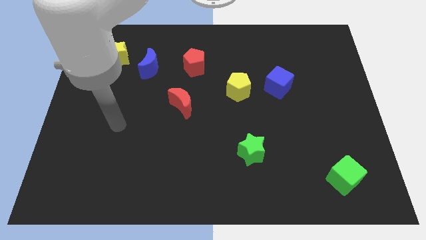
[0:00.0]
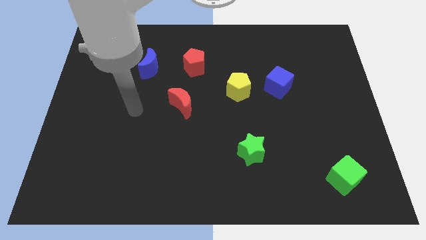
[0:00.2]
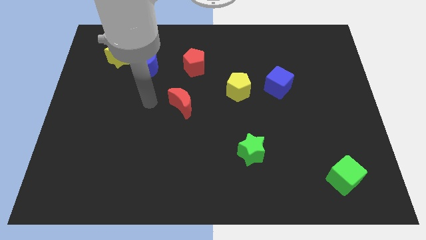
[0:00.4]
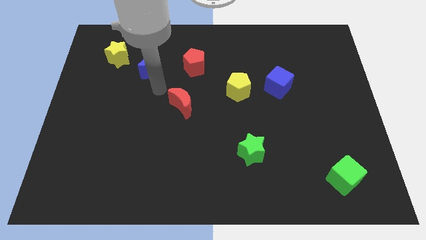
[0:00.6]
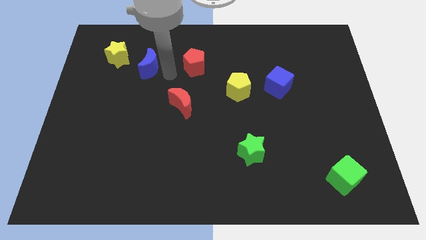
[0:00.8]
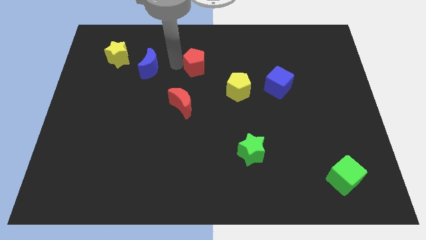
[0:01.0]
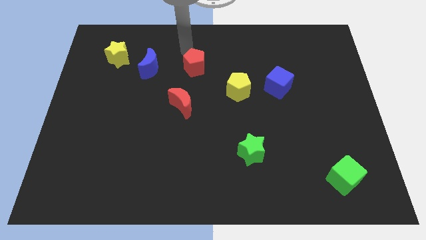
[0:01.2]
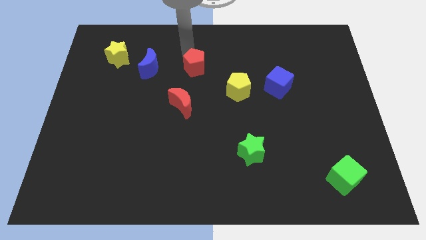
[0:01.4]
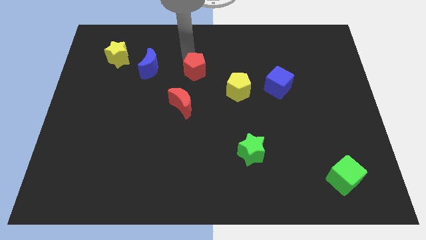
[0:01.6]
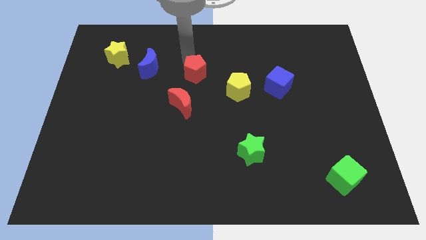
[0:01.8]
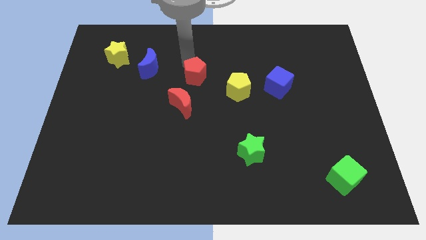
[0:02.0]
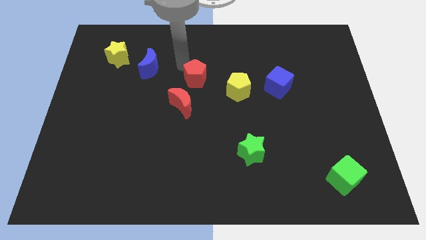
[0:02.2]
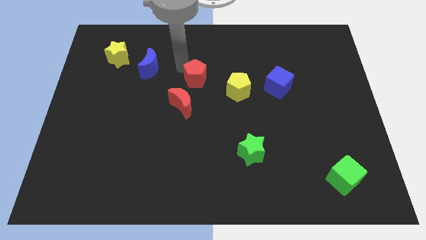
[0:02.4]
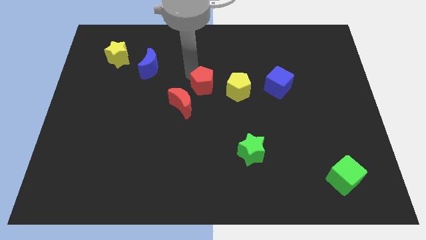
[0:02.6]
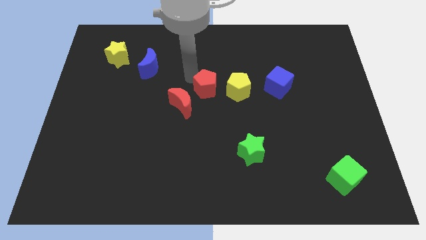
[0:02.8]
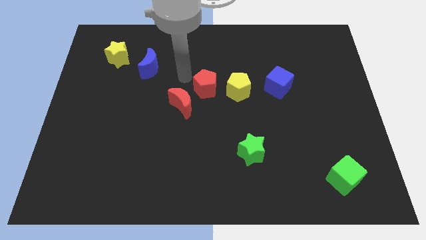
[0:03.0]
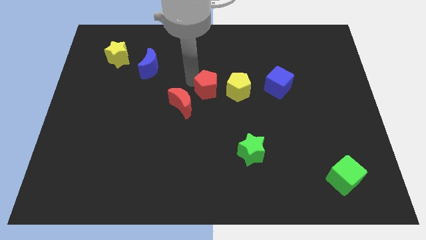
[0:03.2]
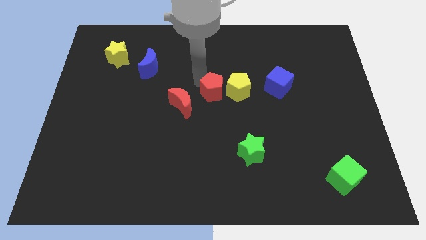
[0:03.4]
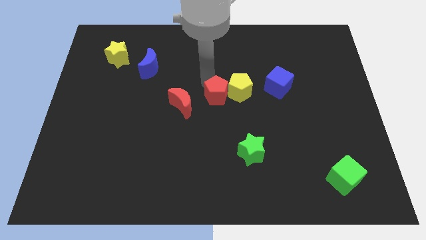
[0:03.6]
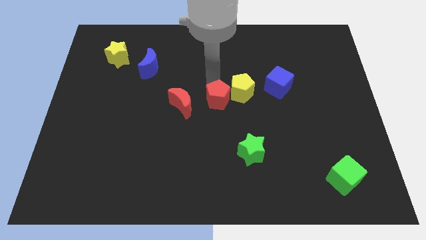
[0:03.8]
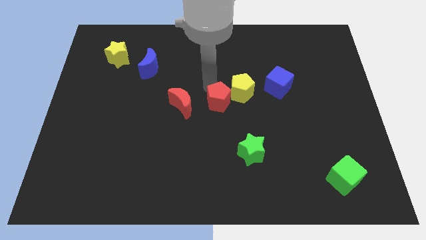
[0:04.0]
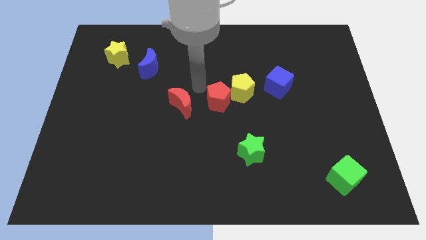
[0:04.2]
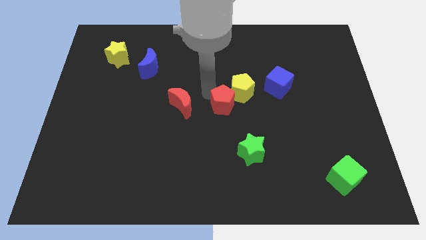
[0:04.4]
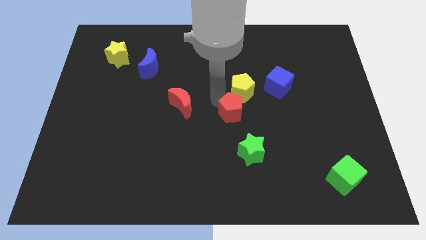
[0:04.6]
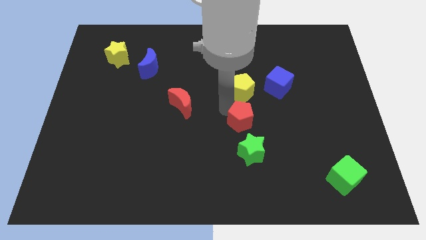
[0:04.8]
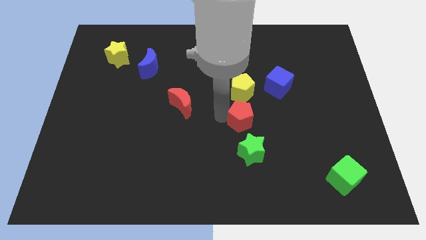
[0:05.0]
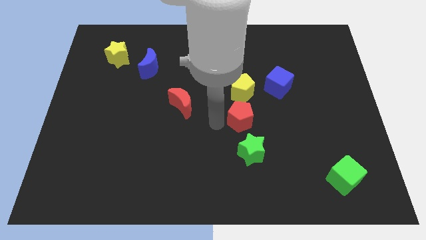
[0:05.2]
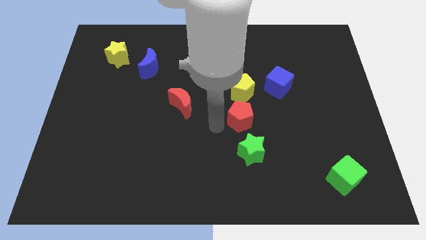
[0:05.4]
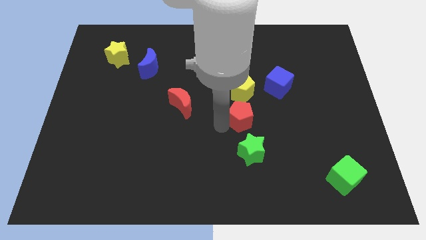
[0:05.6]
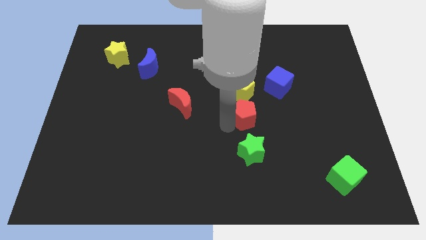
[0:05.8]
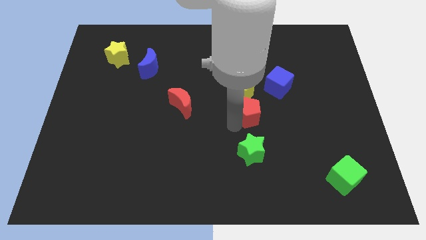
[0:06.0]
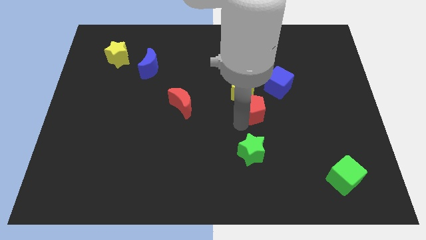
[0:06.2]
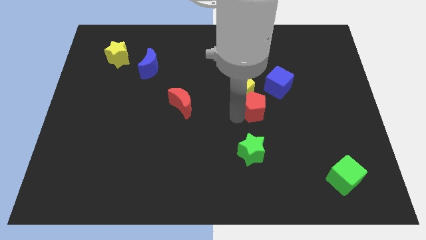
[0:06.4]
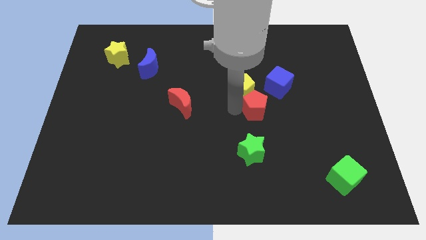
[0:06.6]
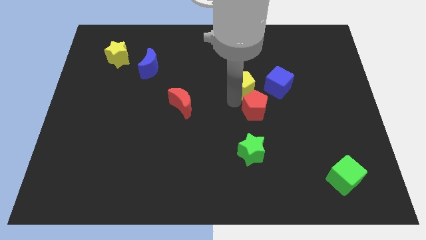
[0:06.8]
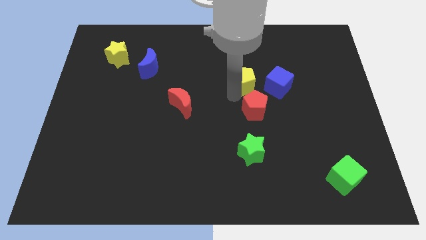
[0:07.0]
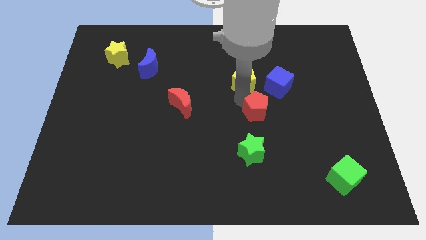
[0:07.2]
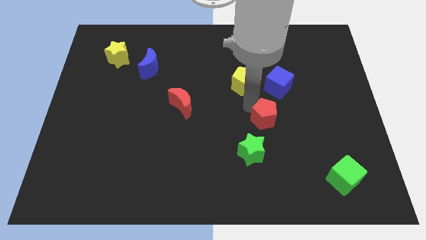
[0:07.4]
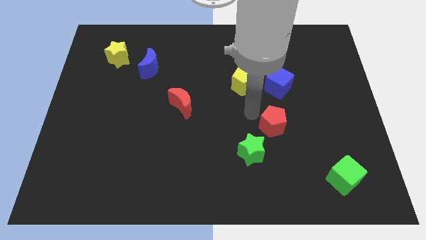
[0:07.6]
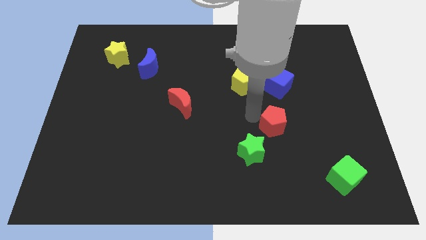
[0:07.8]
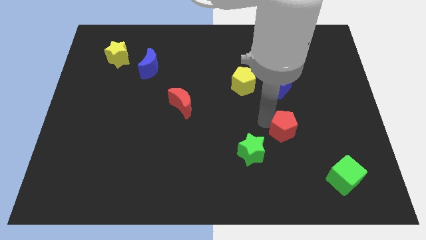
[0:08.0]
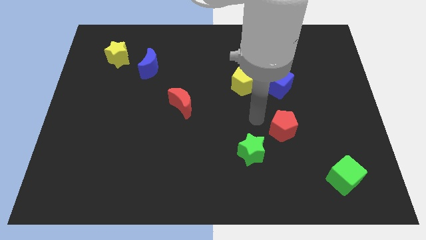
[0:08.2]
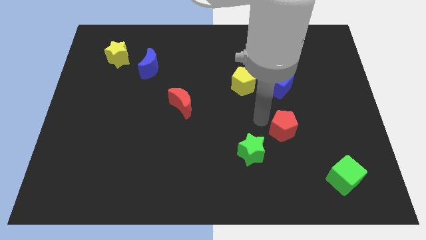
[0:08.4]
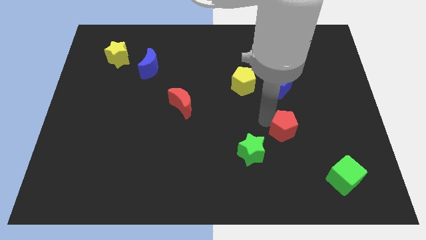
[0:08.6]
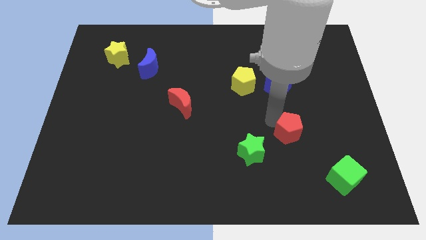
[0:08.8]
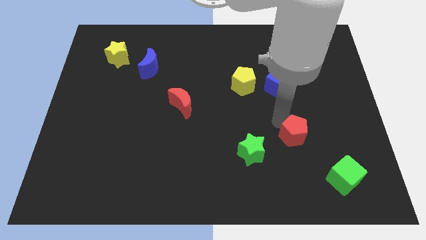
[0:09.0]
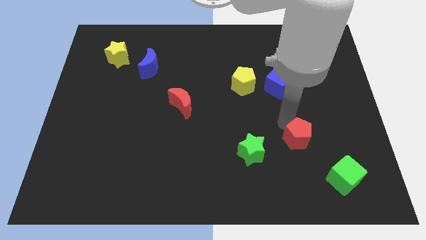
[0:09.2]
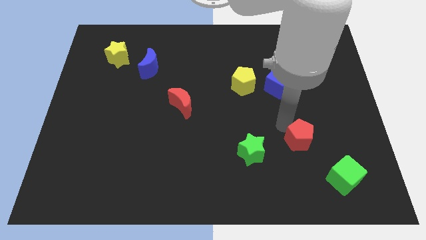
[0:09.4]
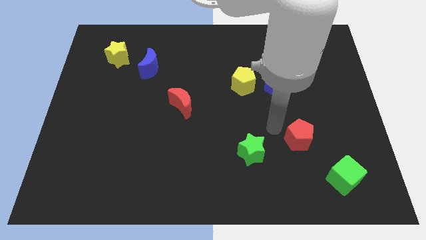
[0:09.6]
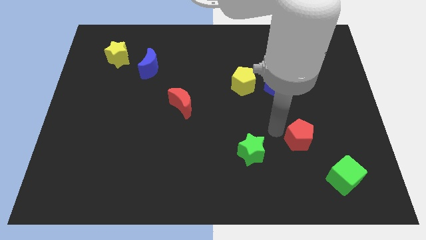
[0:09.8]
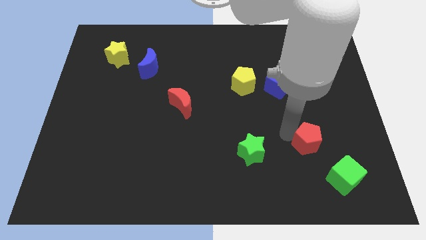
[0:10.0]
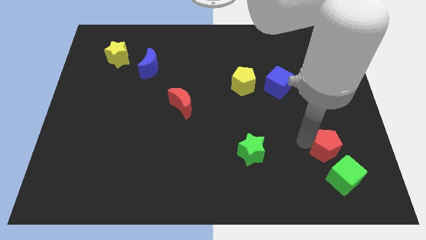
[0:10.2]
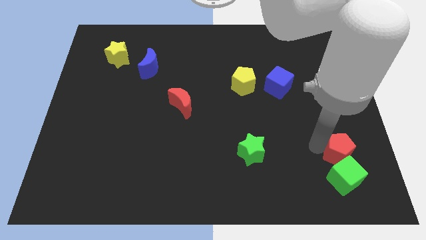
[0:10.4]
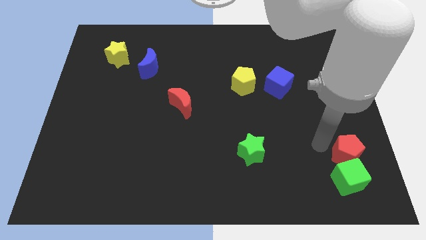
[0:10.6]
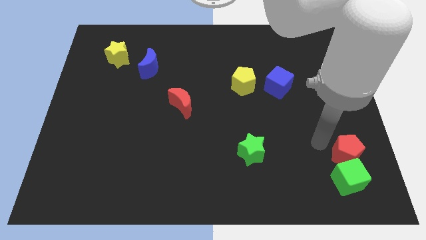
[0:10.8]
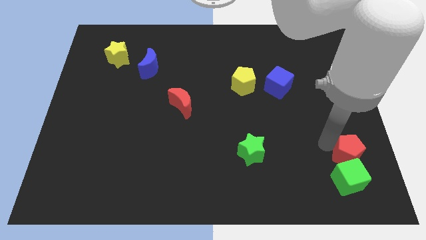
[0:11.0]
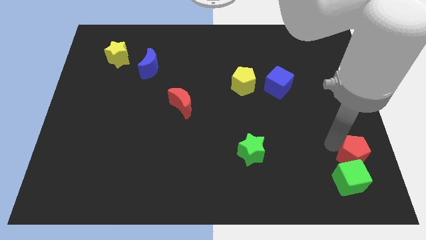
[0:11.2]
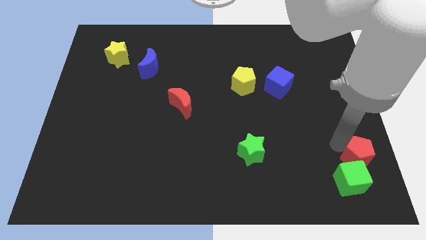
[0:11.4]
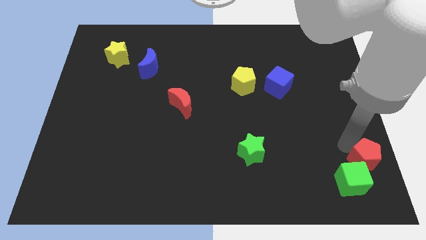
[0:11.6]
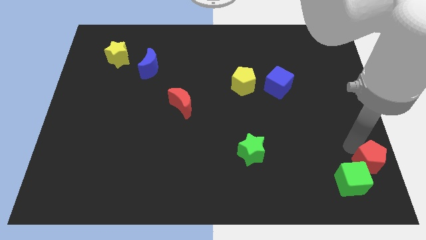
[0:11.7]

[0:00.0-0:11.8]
push the red pentagon to the bottom right

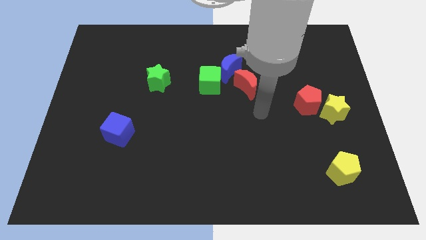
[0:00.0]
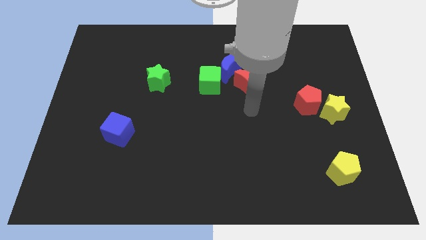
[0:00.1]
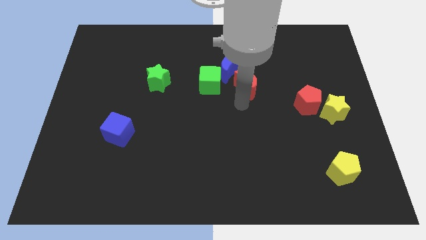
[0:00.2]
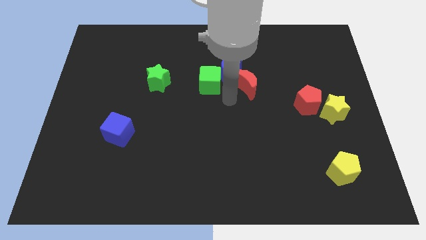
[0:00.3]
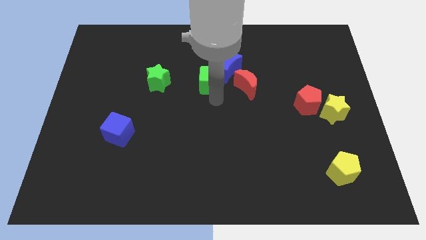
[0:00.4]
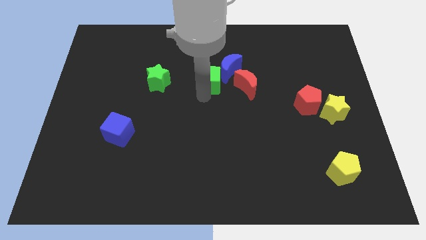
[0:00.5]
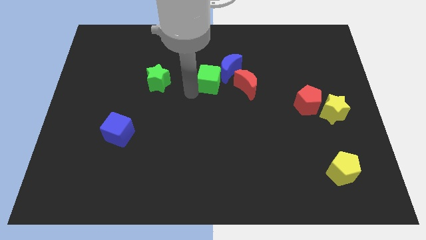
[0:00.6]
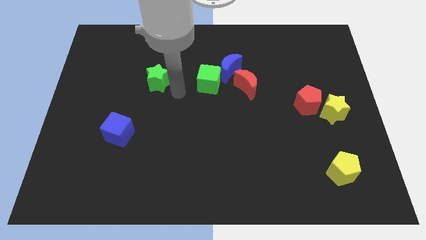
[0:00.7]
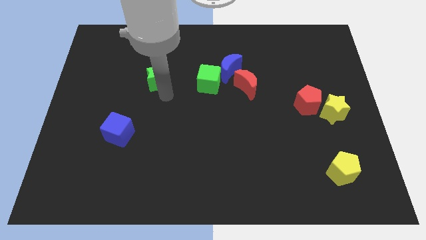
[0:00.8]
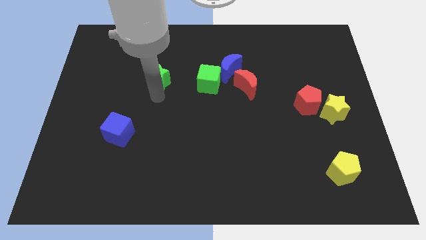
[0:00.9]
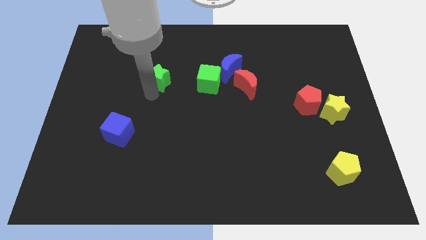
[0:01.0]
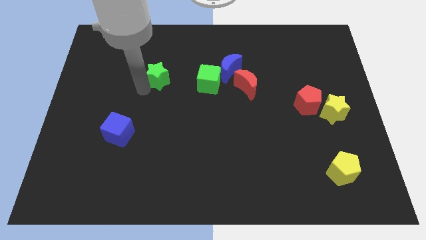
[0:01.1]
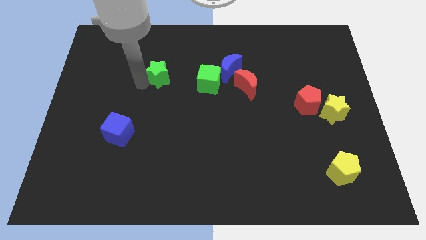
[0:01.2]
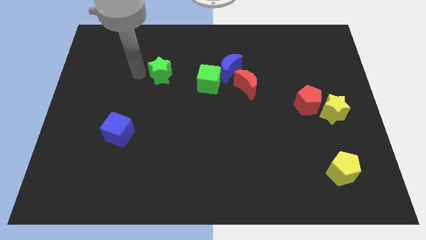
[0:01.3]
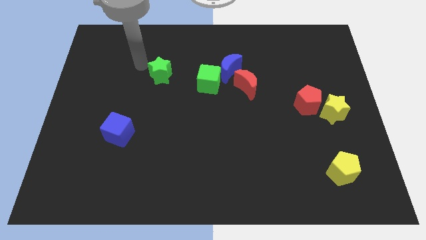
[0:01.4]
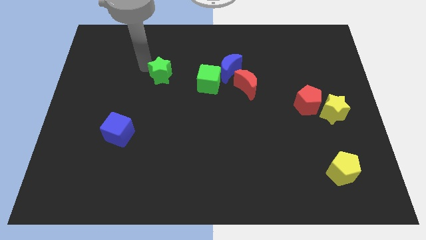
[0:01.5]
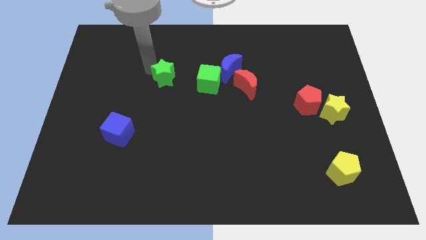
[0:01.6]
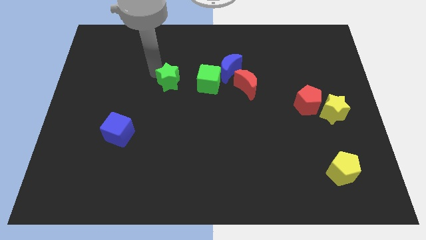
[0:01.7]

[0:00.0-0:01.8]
put the green star to the middle of the board
